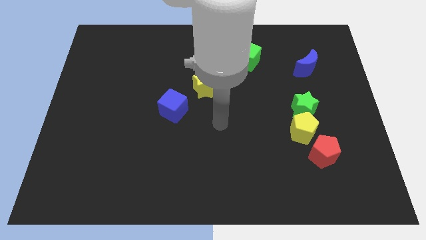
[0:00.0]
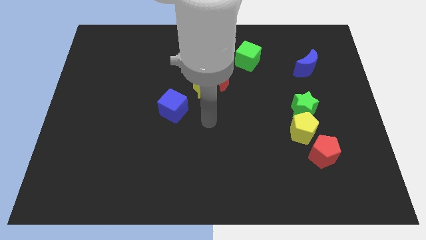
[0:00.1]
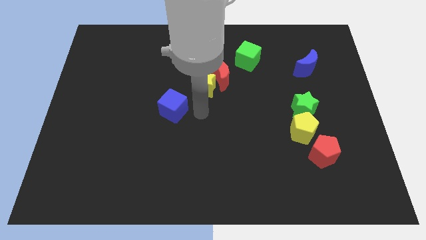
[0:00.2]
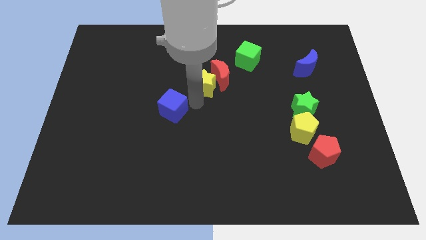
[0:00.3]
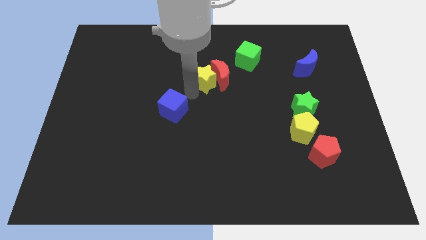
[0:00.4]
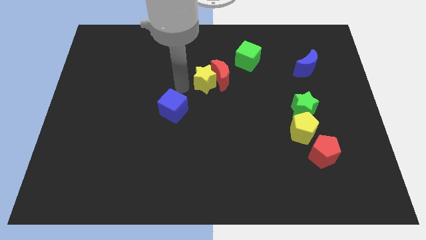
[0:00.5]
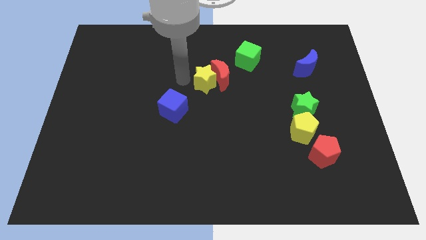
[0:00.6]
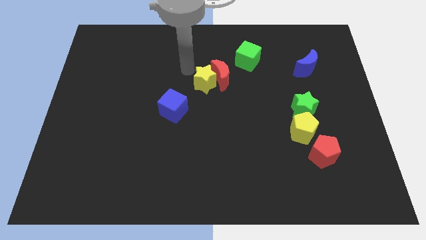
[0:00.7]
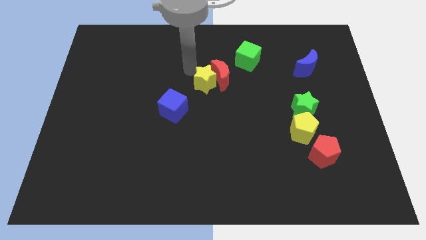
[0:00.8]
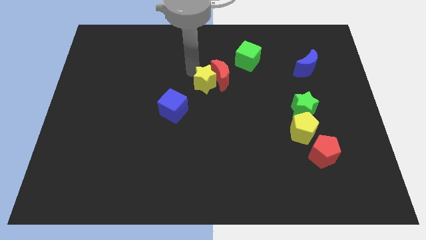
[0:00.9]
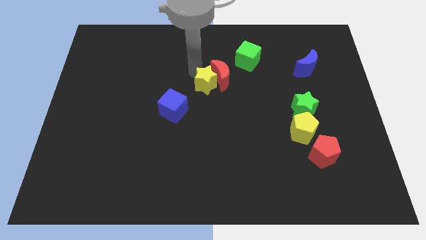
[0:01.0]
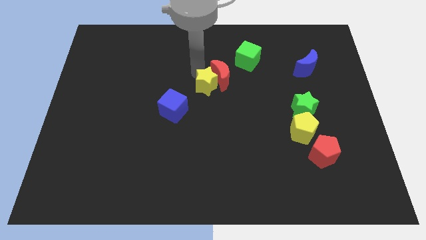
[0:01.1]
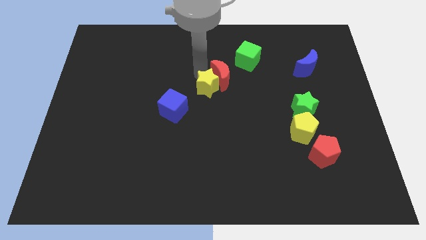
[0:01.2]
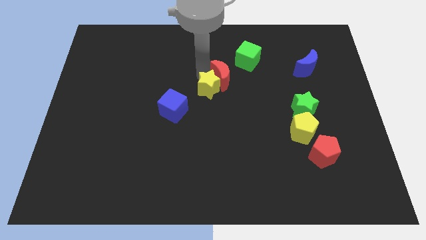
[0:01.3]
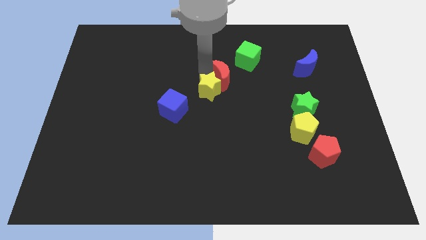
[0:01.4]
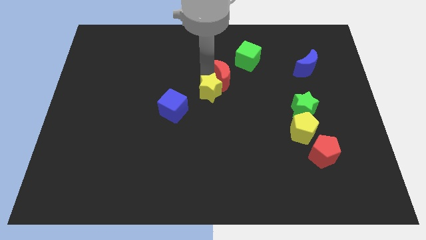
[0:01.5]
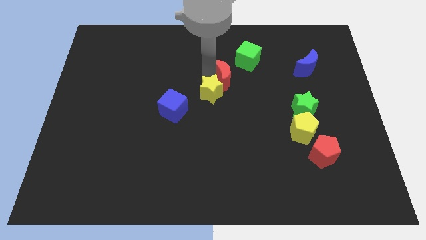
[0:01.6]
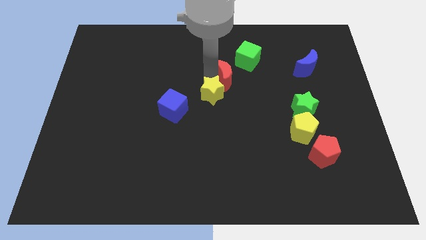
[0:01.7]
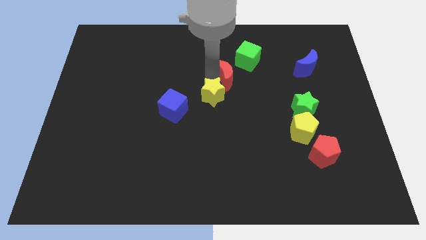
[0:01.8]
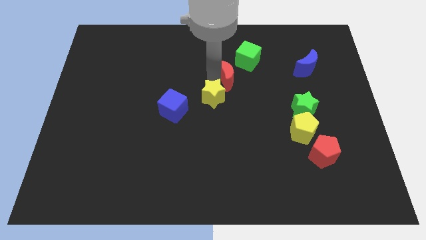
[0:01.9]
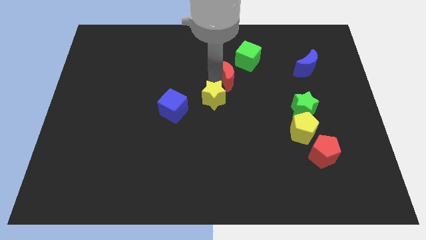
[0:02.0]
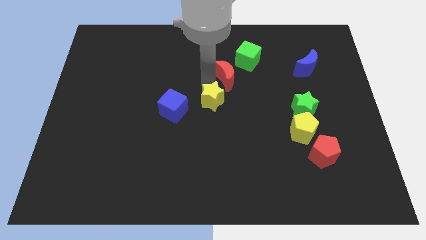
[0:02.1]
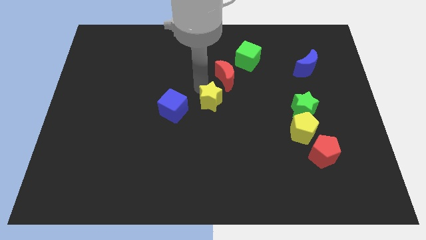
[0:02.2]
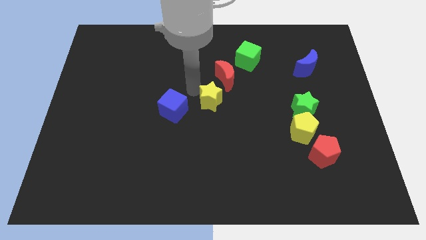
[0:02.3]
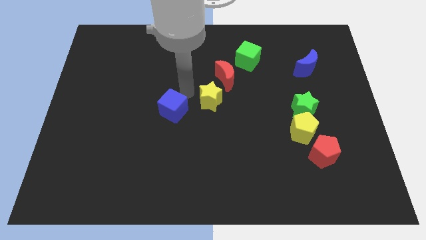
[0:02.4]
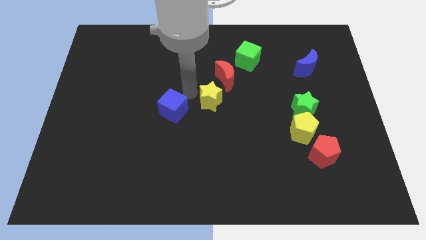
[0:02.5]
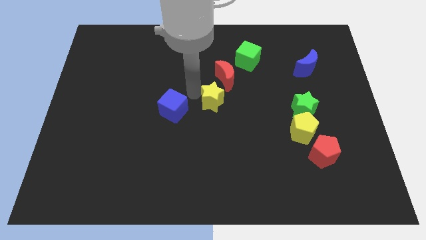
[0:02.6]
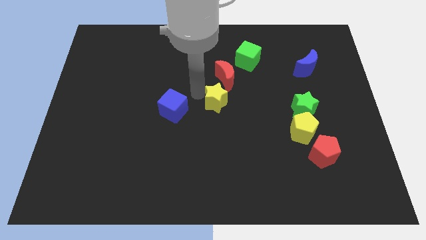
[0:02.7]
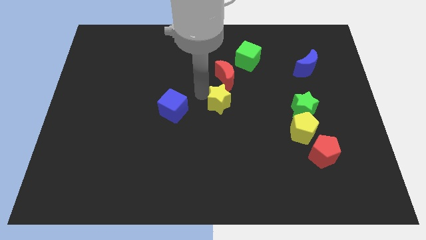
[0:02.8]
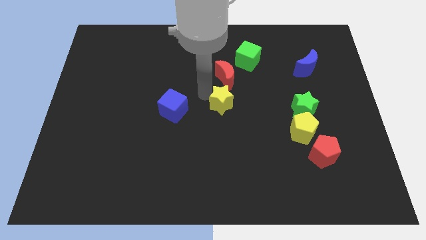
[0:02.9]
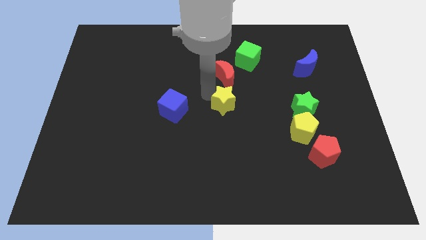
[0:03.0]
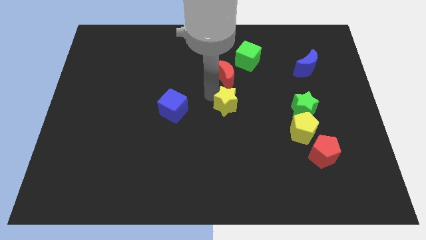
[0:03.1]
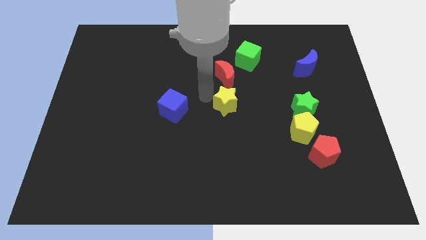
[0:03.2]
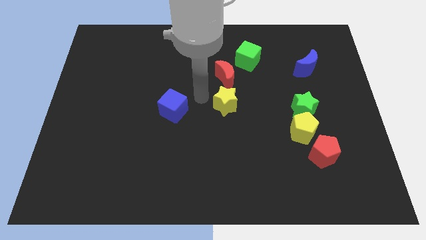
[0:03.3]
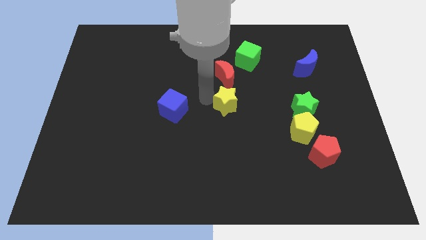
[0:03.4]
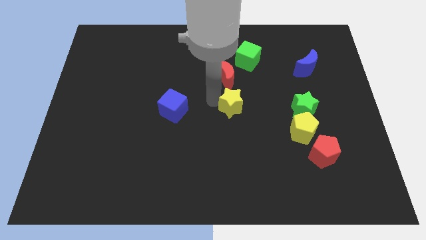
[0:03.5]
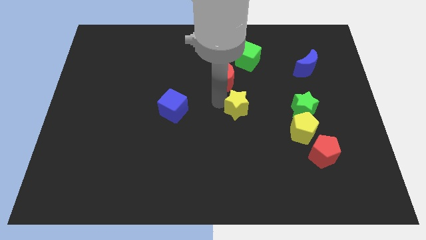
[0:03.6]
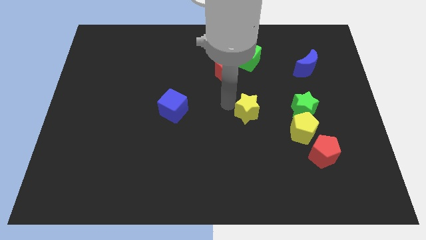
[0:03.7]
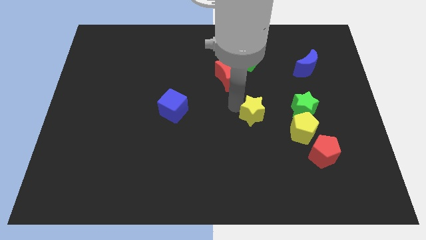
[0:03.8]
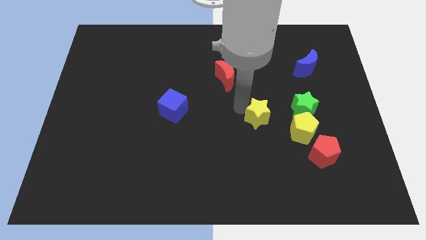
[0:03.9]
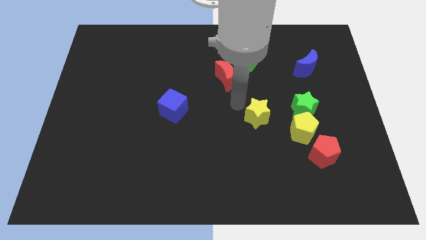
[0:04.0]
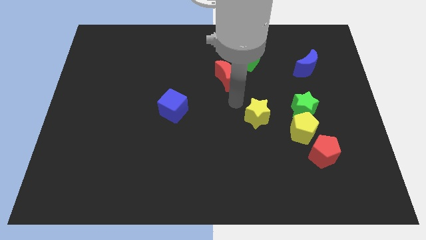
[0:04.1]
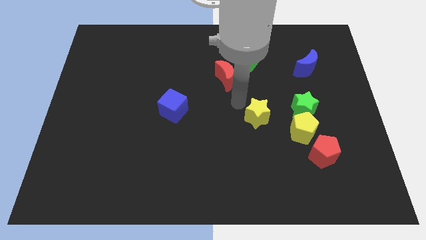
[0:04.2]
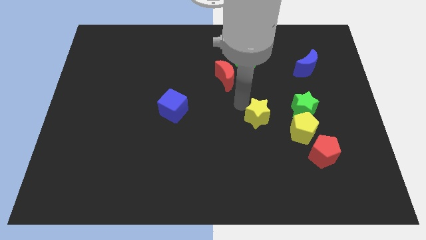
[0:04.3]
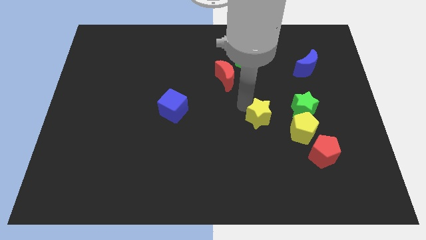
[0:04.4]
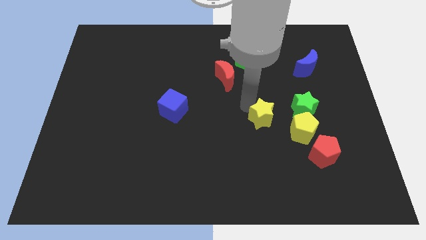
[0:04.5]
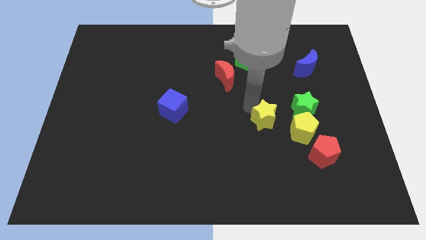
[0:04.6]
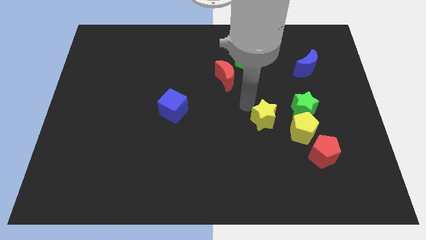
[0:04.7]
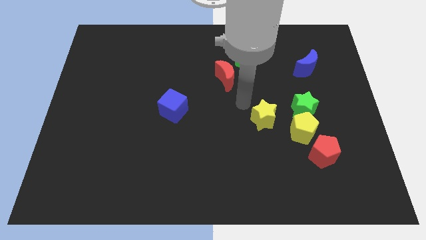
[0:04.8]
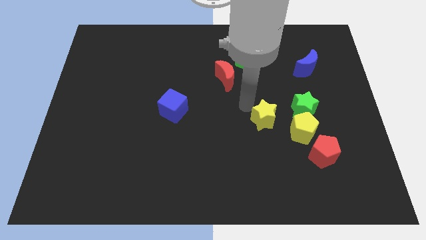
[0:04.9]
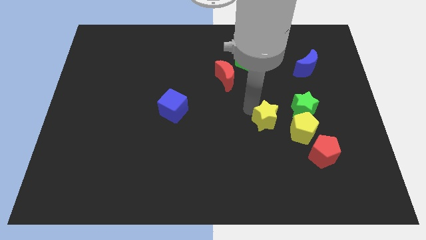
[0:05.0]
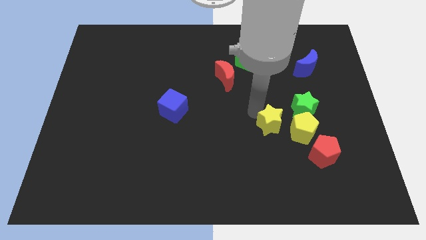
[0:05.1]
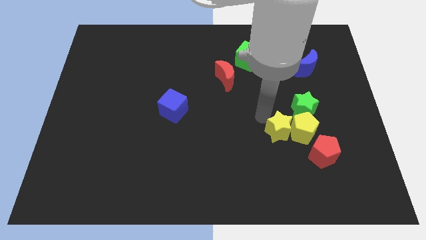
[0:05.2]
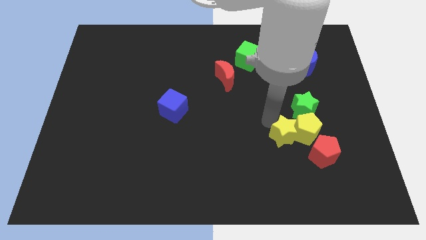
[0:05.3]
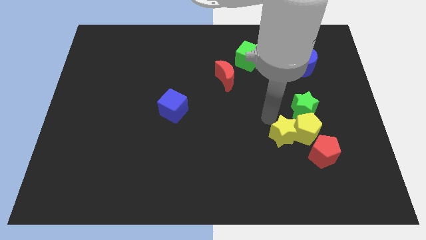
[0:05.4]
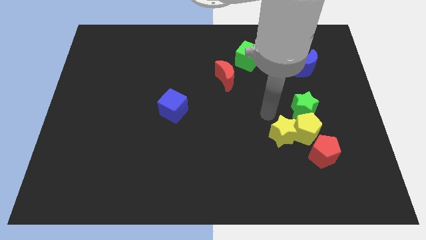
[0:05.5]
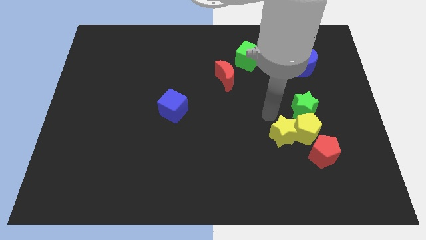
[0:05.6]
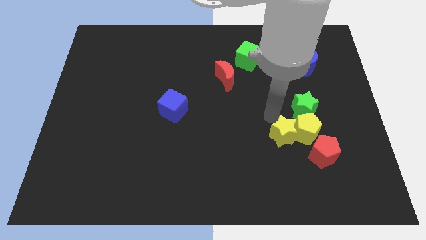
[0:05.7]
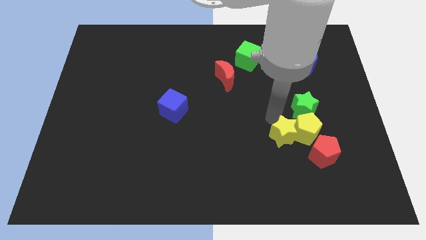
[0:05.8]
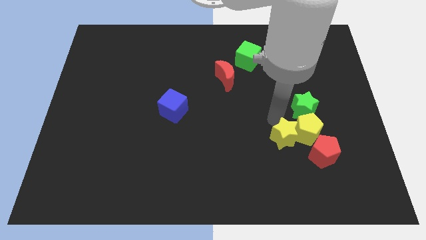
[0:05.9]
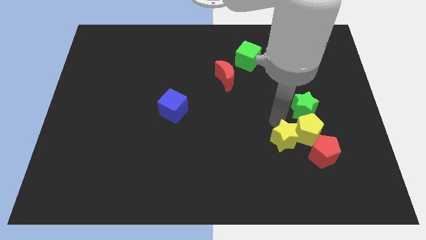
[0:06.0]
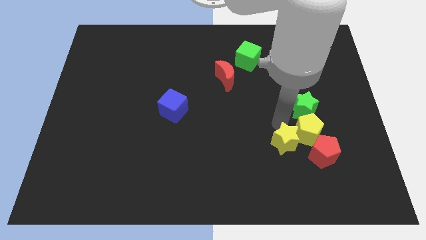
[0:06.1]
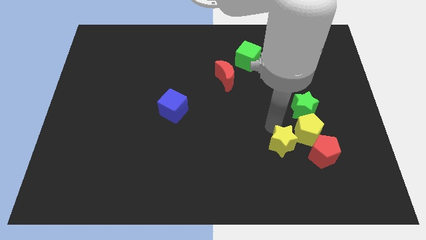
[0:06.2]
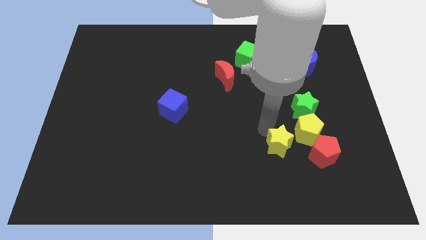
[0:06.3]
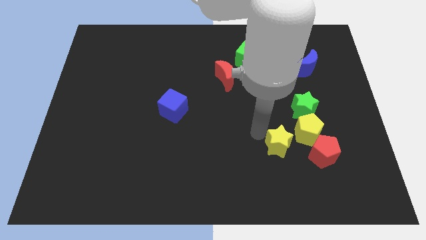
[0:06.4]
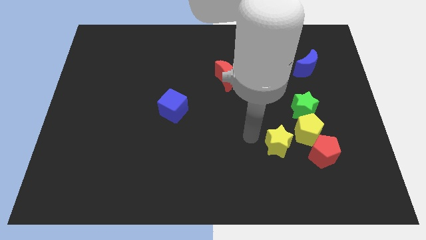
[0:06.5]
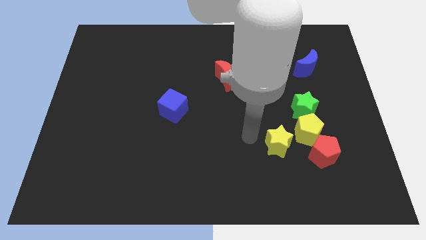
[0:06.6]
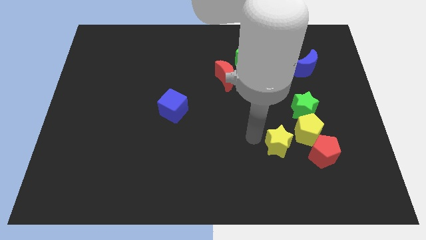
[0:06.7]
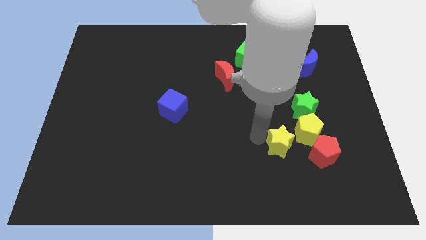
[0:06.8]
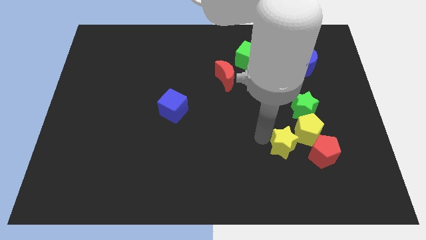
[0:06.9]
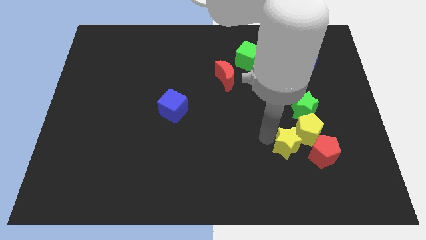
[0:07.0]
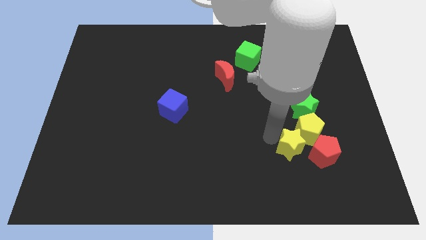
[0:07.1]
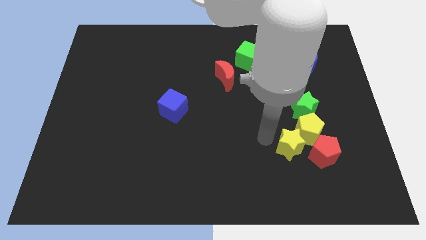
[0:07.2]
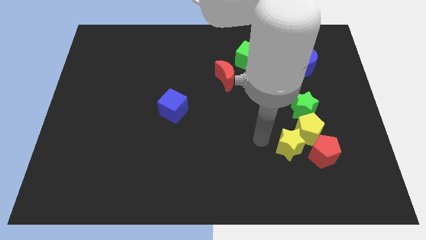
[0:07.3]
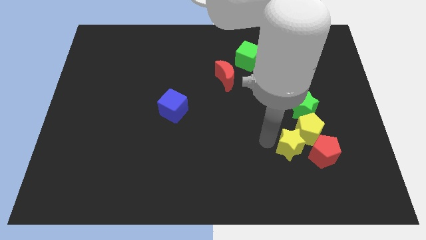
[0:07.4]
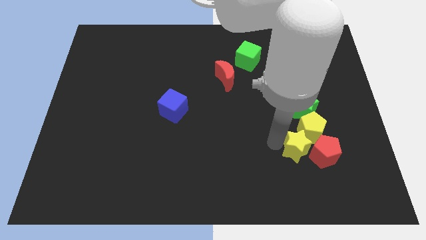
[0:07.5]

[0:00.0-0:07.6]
put the yellow star next to the red pentagon

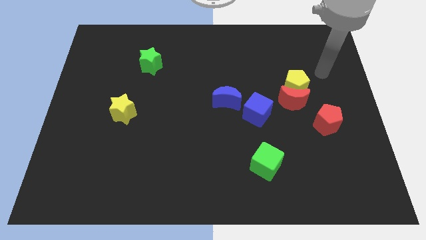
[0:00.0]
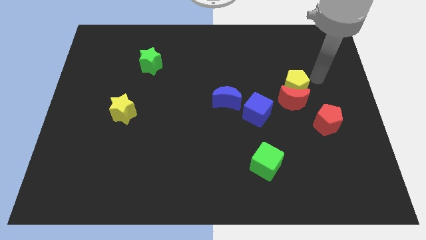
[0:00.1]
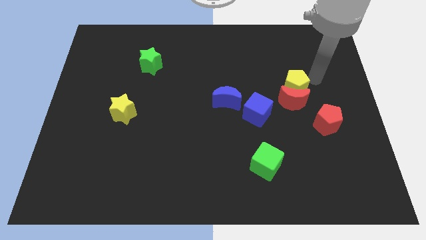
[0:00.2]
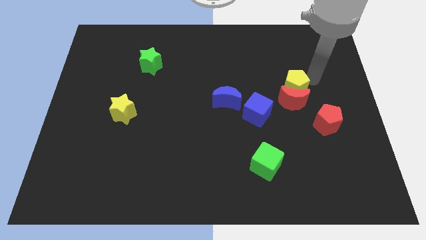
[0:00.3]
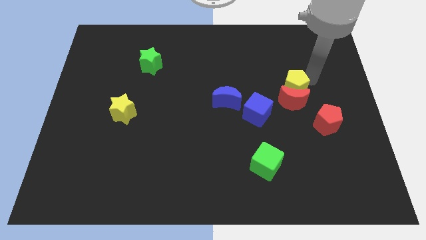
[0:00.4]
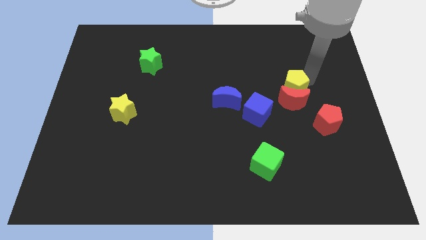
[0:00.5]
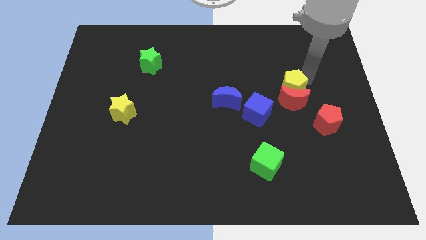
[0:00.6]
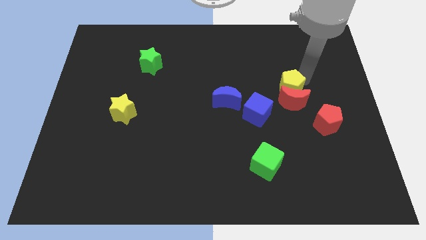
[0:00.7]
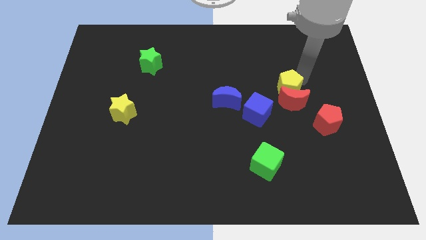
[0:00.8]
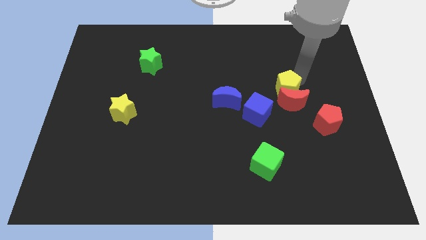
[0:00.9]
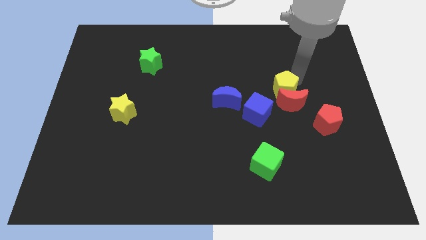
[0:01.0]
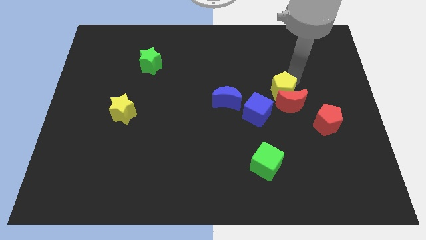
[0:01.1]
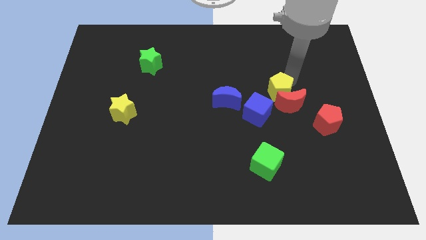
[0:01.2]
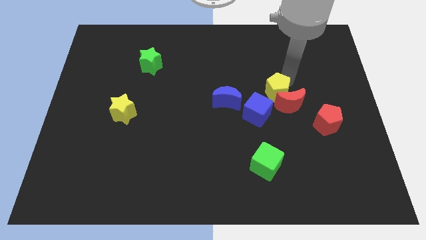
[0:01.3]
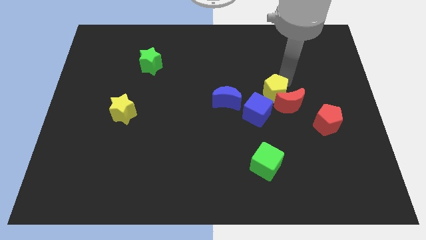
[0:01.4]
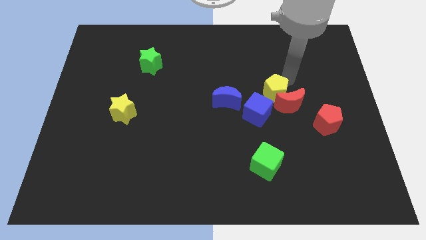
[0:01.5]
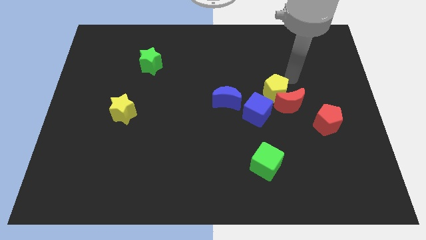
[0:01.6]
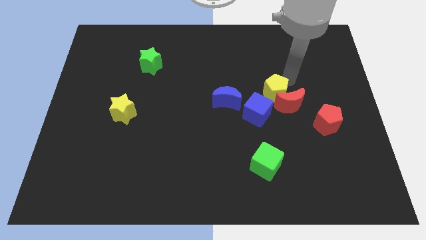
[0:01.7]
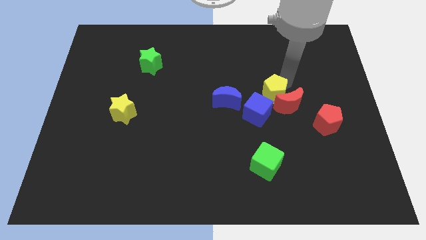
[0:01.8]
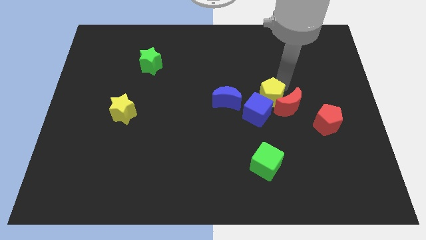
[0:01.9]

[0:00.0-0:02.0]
put the yellow pentagon to the blue cube
